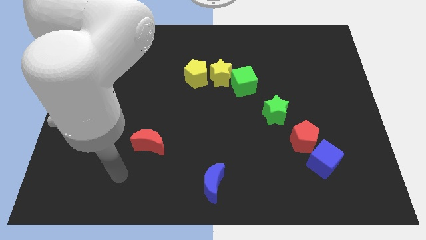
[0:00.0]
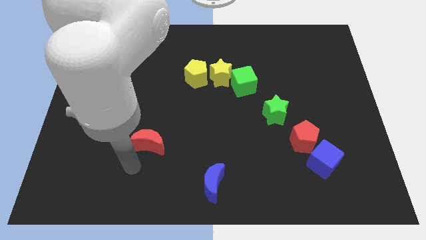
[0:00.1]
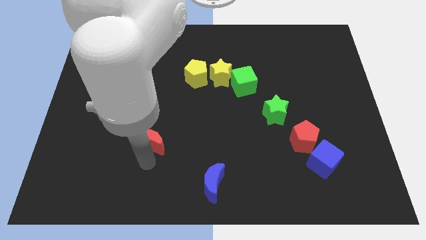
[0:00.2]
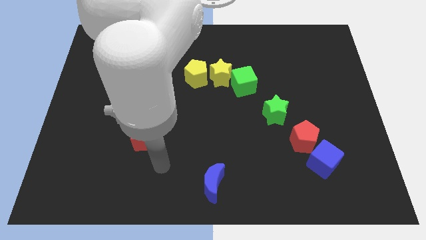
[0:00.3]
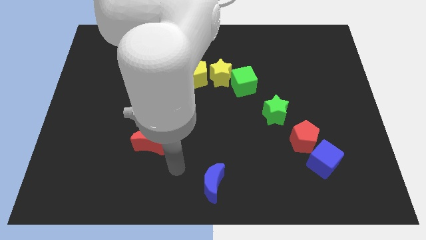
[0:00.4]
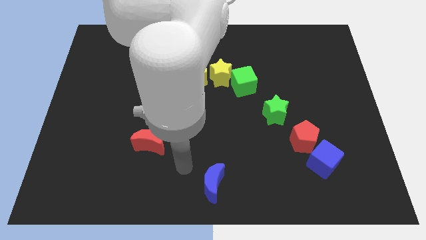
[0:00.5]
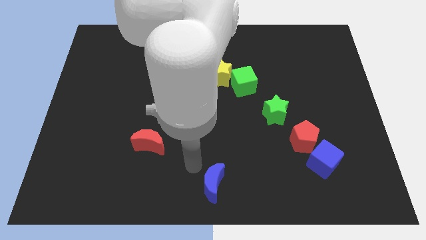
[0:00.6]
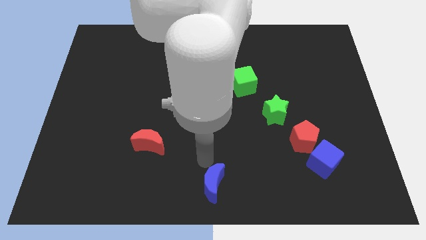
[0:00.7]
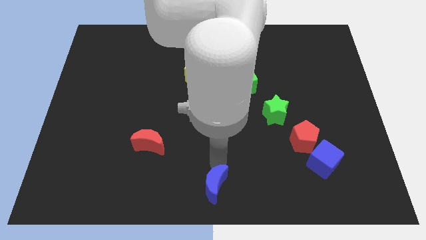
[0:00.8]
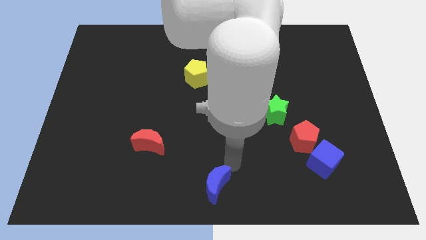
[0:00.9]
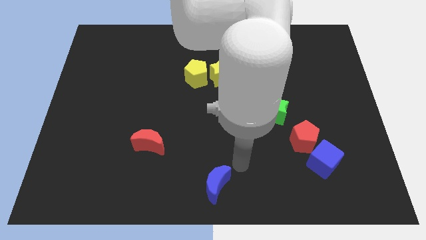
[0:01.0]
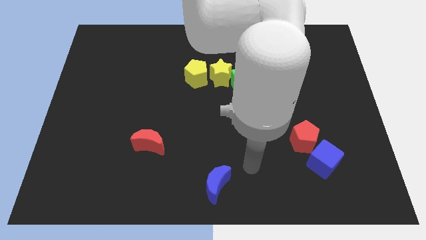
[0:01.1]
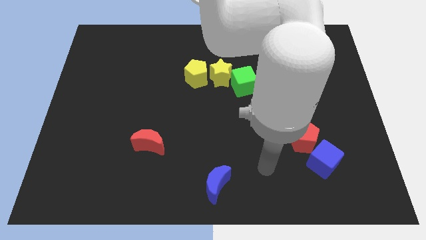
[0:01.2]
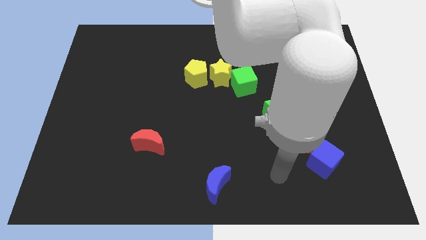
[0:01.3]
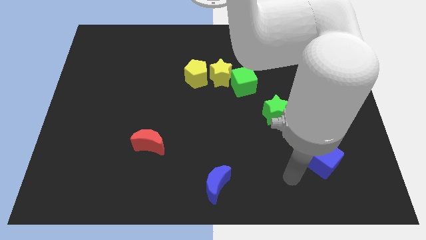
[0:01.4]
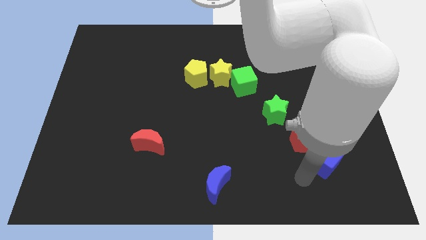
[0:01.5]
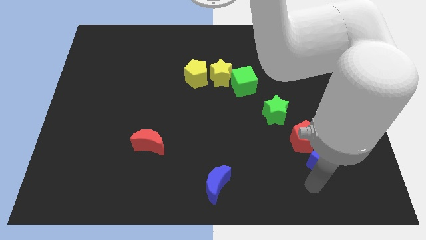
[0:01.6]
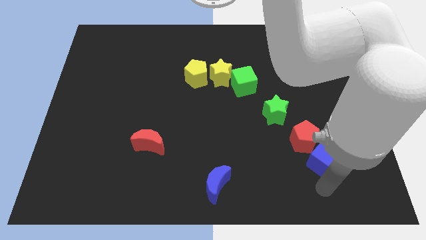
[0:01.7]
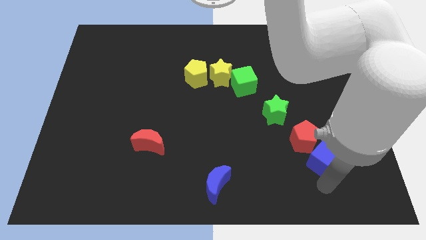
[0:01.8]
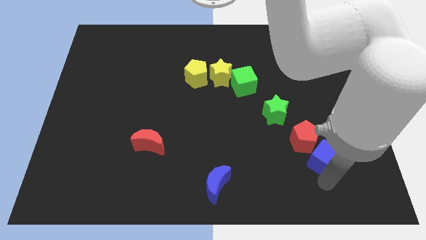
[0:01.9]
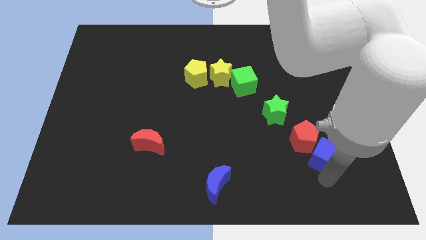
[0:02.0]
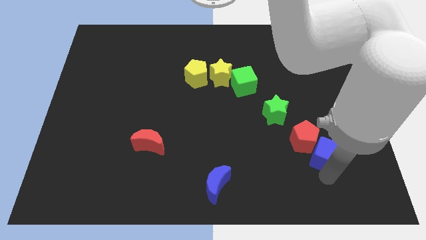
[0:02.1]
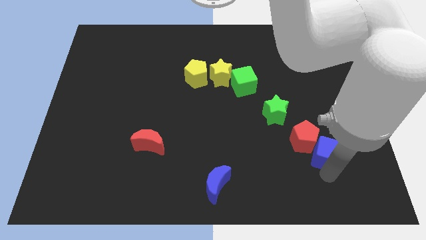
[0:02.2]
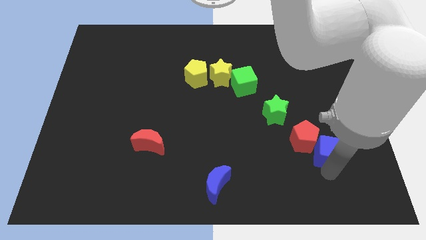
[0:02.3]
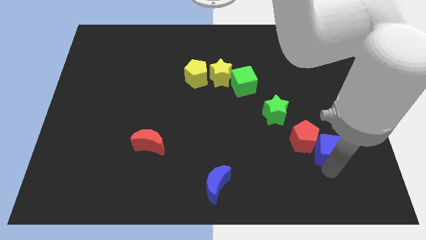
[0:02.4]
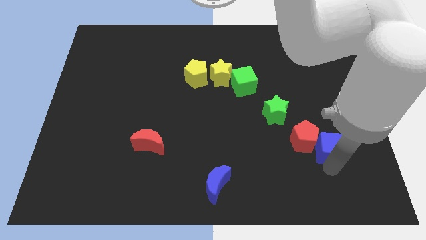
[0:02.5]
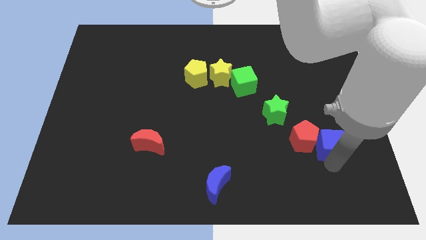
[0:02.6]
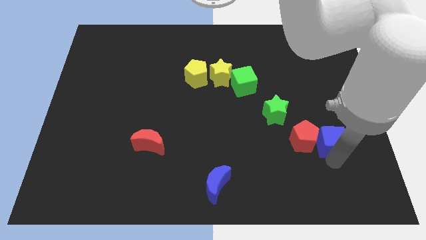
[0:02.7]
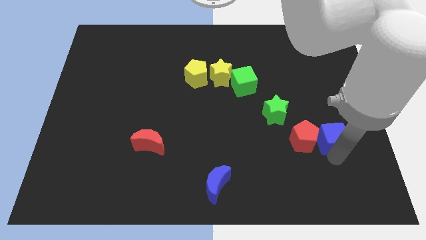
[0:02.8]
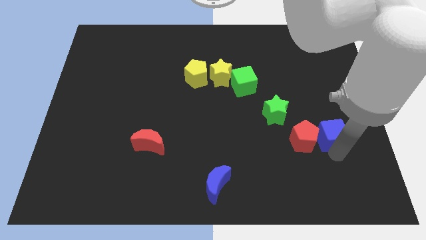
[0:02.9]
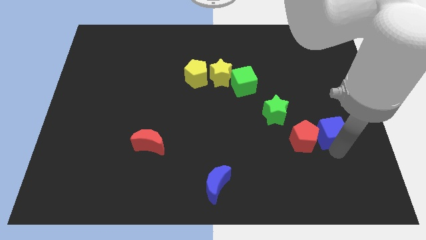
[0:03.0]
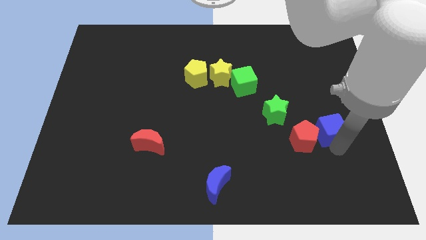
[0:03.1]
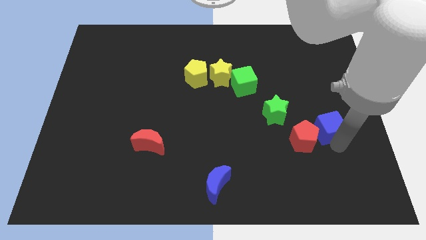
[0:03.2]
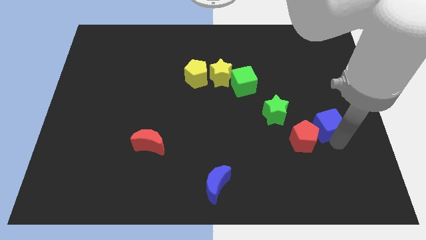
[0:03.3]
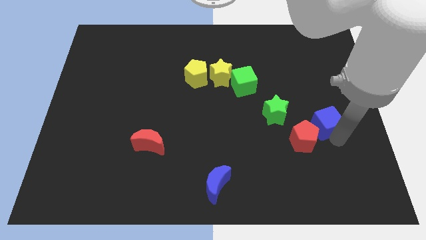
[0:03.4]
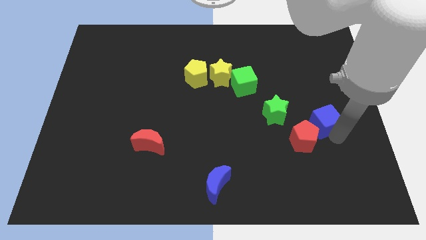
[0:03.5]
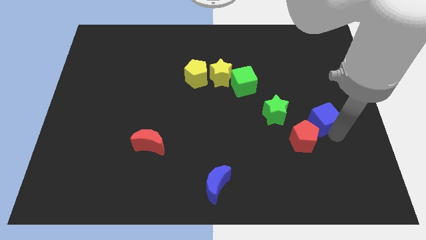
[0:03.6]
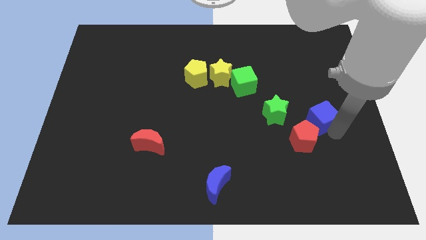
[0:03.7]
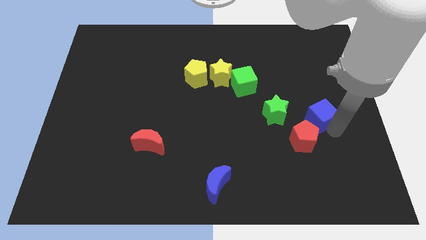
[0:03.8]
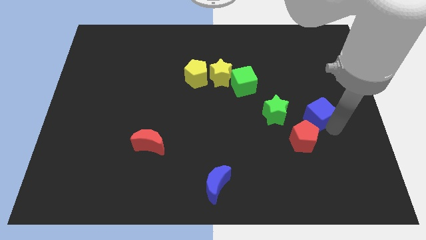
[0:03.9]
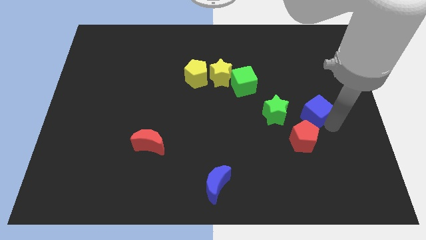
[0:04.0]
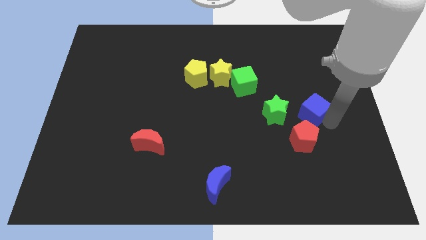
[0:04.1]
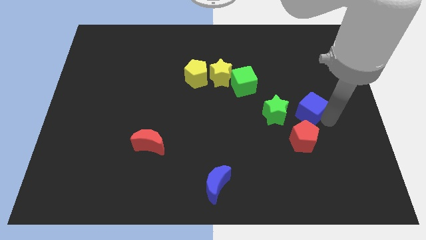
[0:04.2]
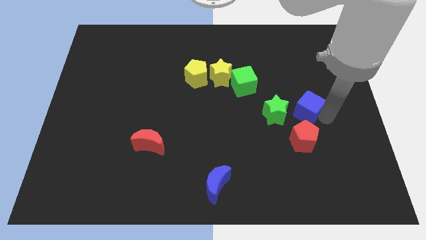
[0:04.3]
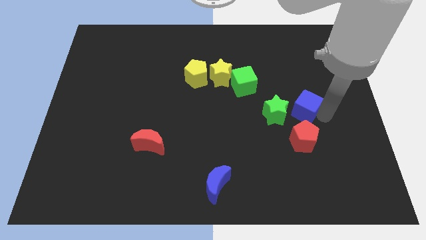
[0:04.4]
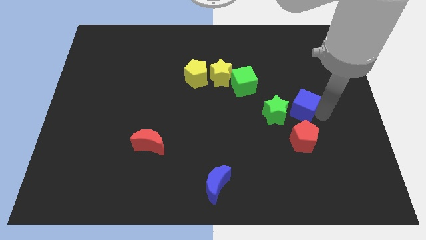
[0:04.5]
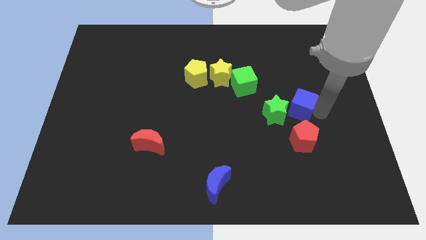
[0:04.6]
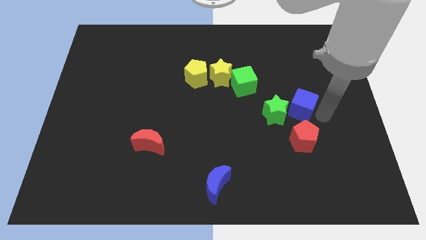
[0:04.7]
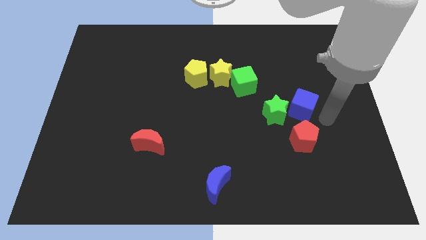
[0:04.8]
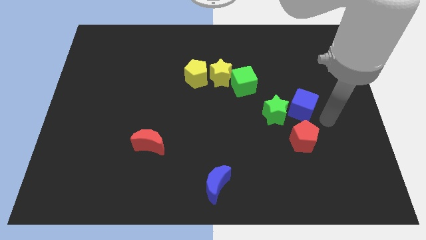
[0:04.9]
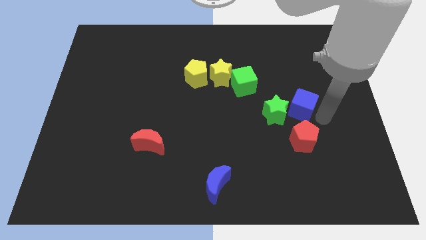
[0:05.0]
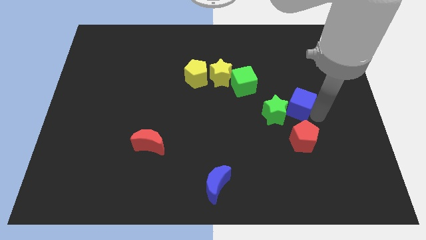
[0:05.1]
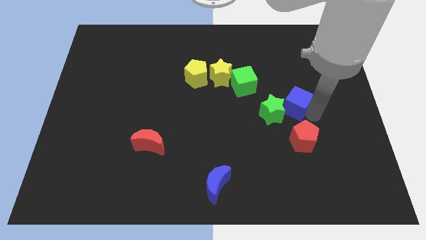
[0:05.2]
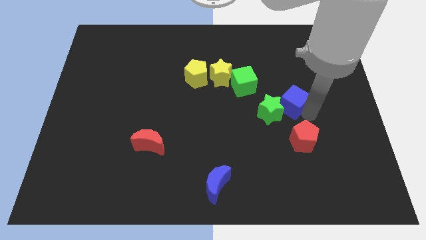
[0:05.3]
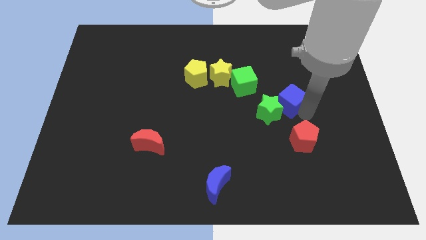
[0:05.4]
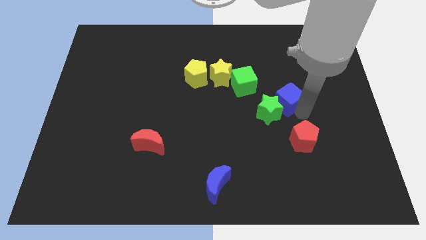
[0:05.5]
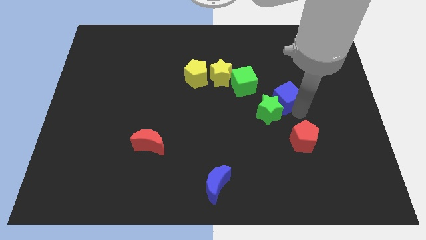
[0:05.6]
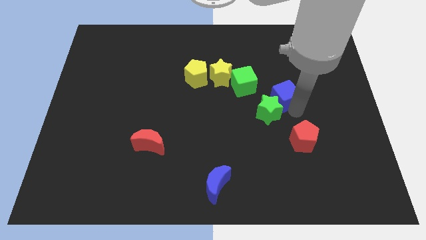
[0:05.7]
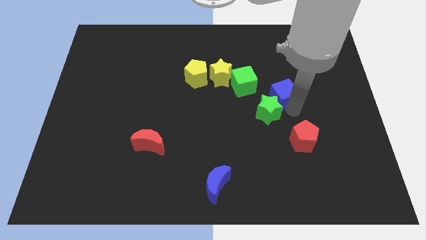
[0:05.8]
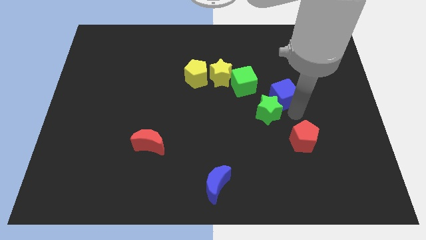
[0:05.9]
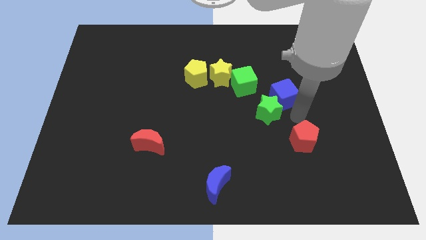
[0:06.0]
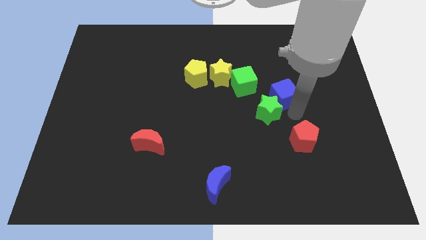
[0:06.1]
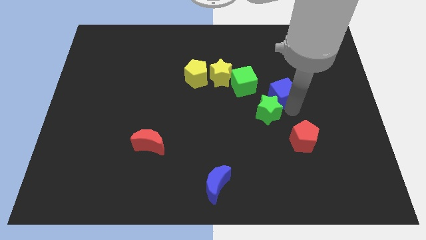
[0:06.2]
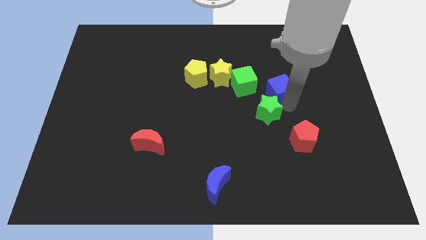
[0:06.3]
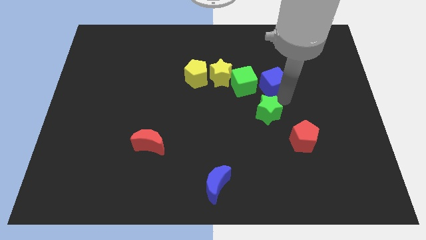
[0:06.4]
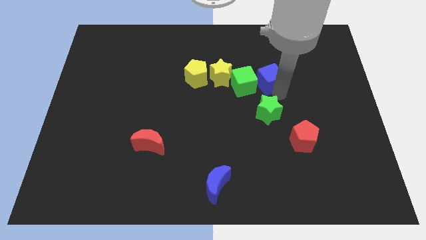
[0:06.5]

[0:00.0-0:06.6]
slide the blue cube diagonally up and to the right of the green cube

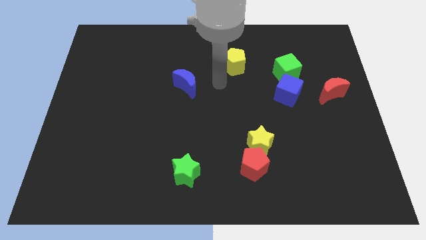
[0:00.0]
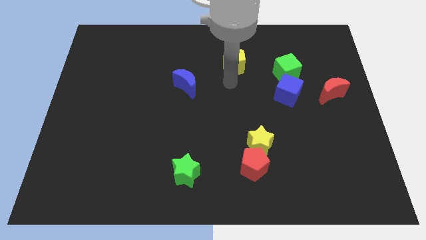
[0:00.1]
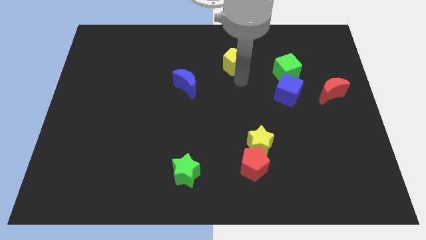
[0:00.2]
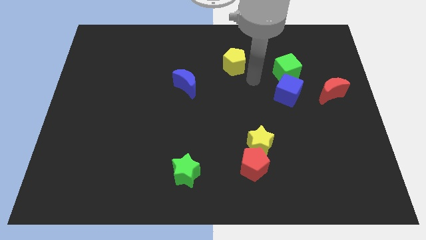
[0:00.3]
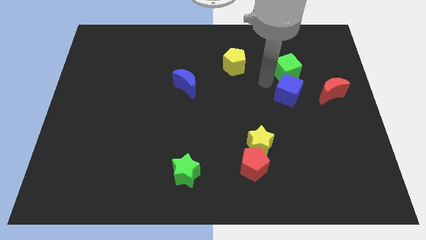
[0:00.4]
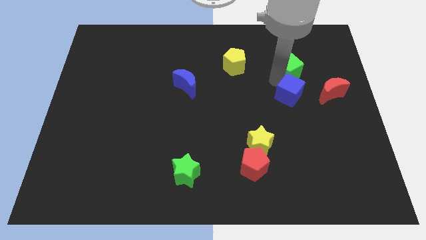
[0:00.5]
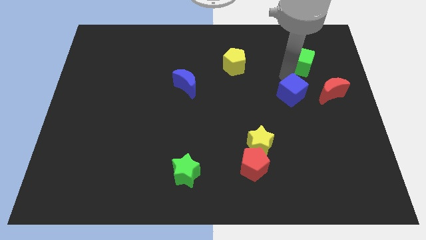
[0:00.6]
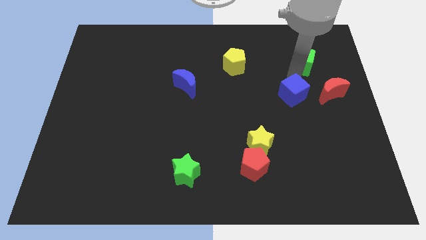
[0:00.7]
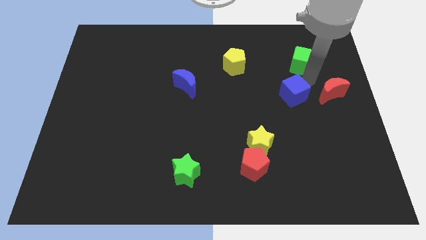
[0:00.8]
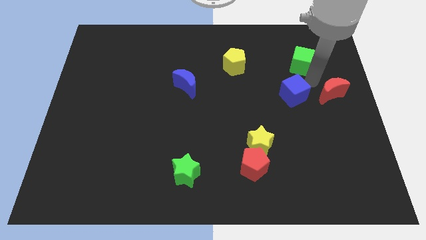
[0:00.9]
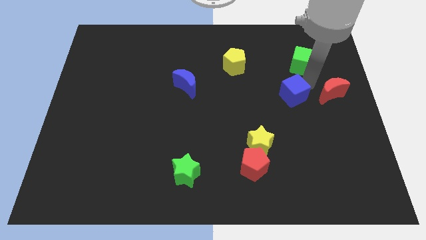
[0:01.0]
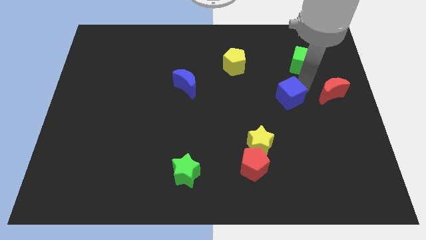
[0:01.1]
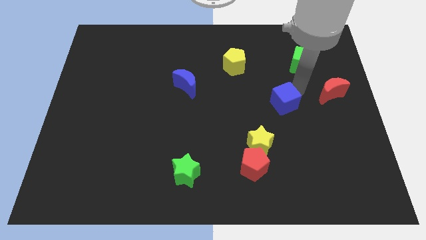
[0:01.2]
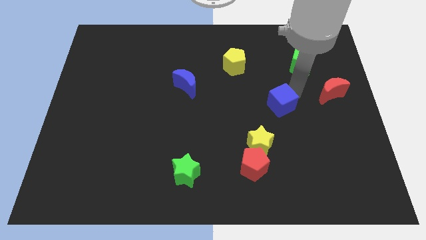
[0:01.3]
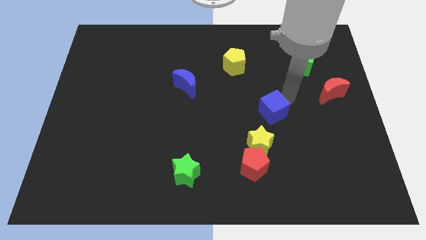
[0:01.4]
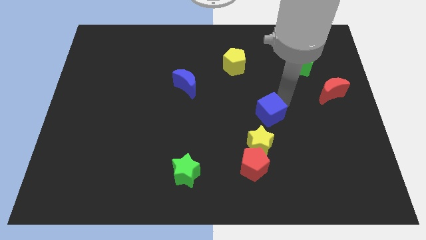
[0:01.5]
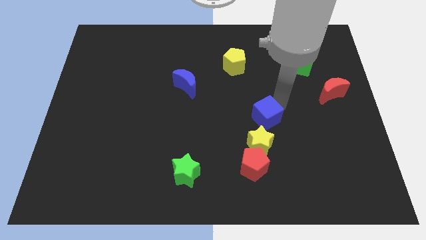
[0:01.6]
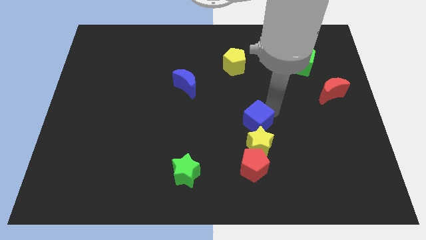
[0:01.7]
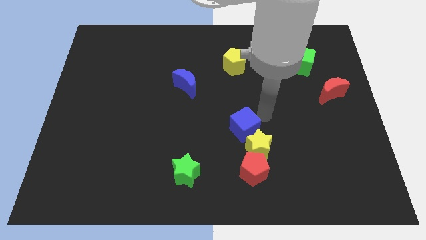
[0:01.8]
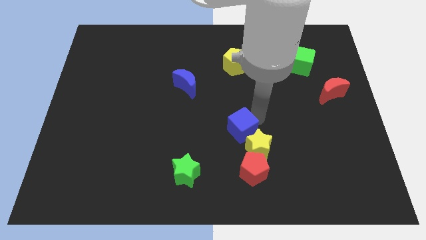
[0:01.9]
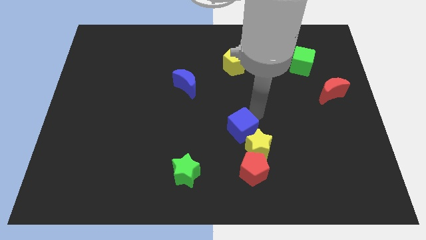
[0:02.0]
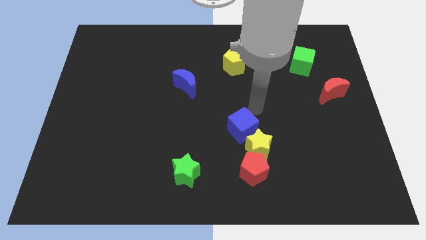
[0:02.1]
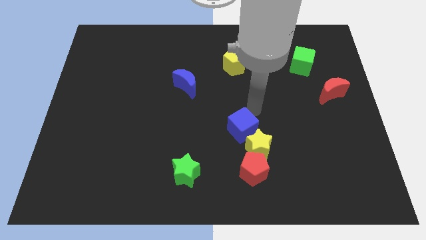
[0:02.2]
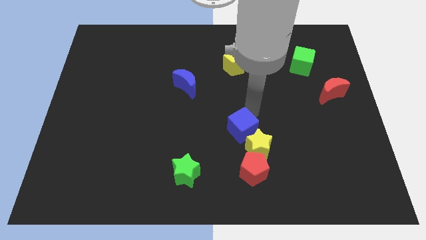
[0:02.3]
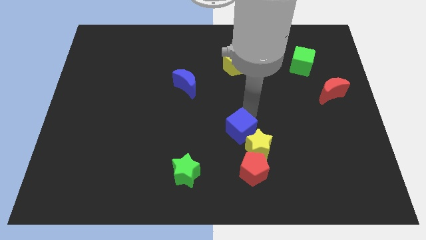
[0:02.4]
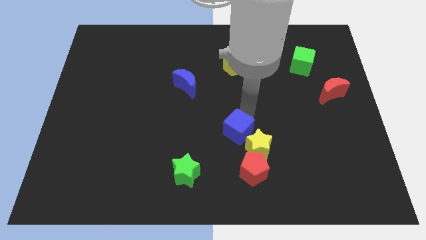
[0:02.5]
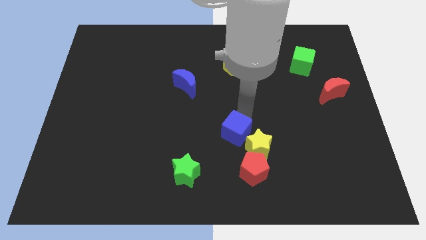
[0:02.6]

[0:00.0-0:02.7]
push the blue cube to the top left of the red pentagon
